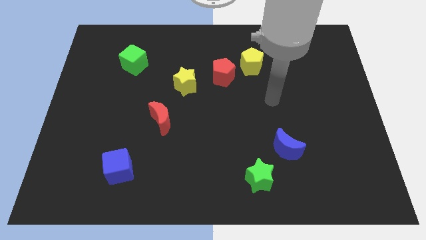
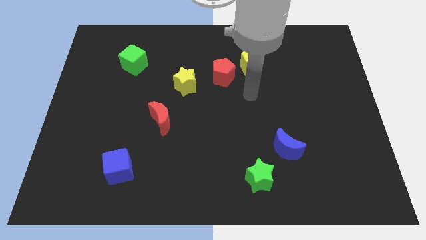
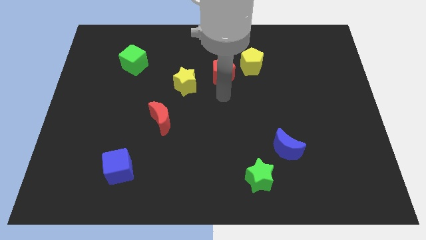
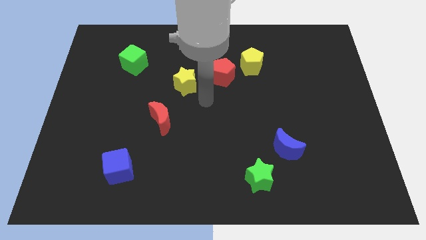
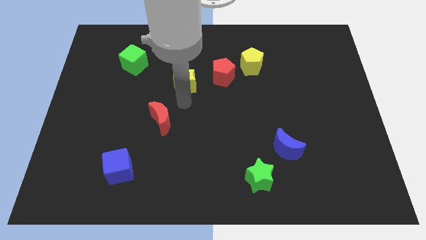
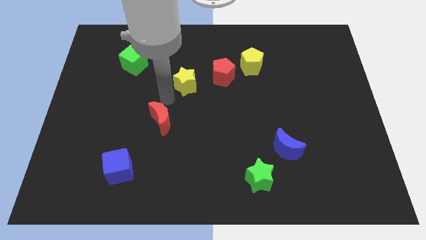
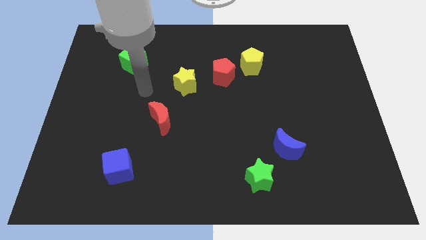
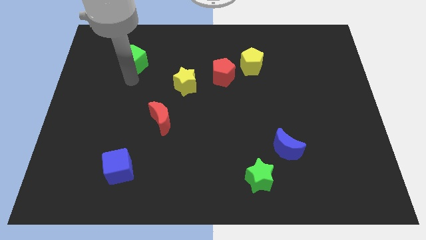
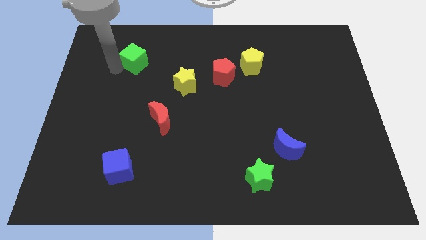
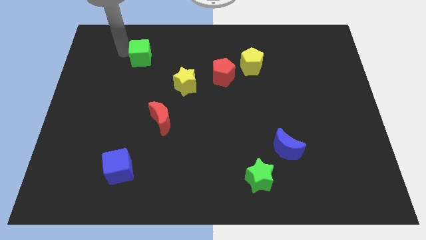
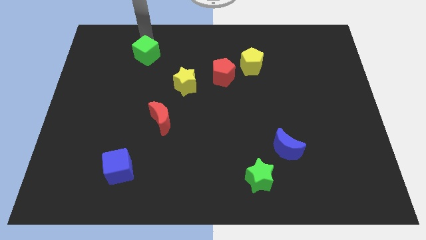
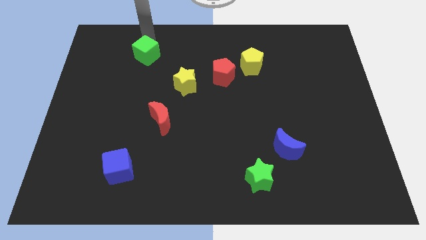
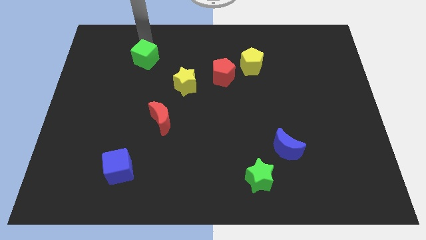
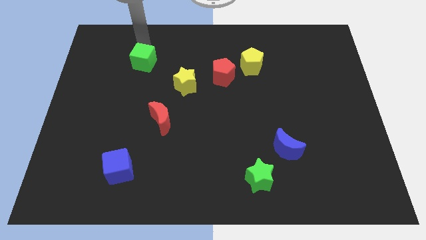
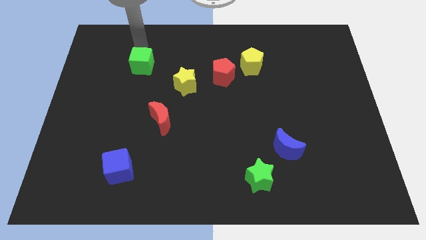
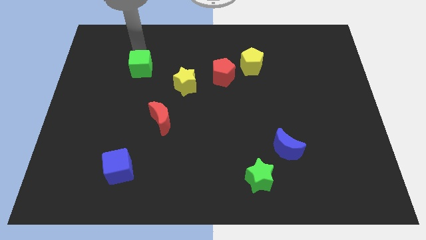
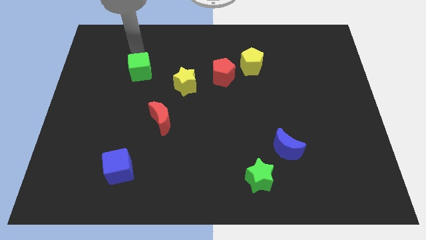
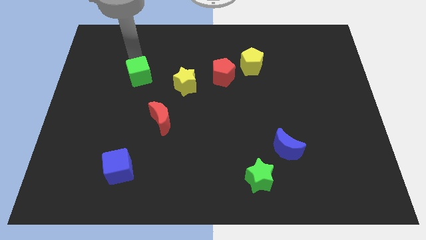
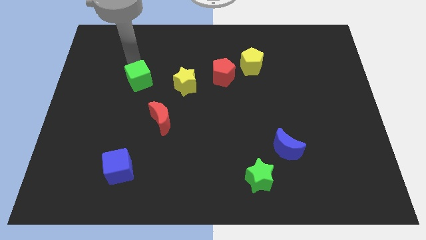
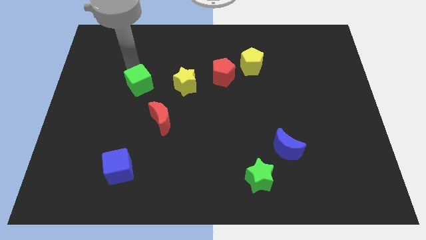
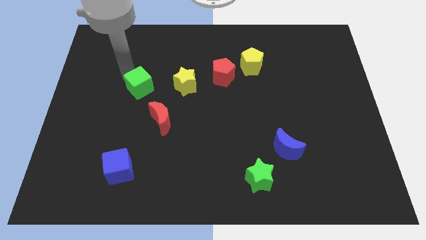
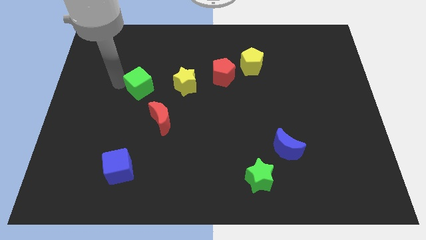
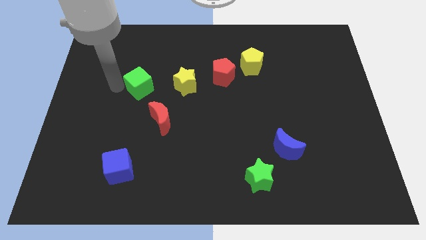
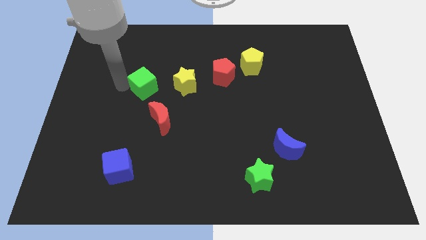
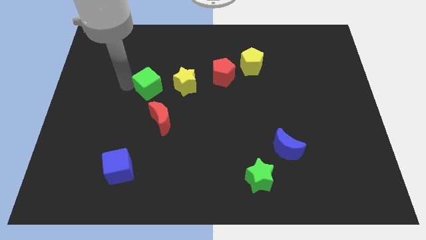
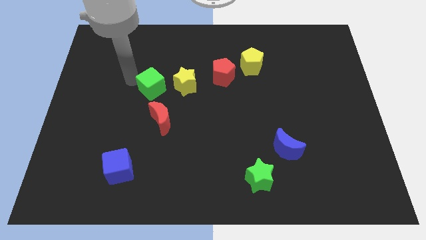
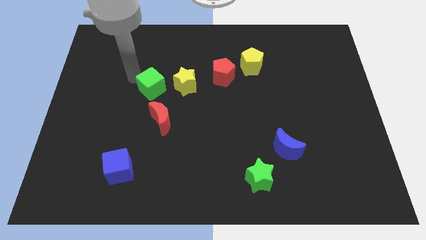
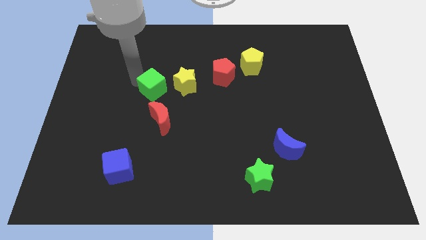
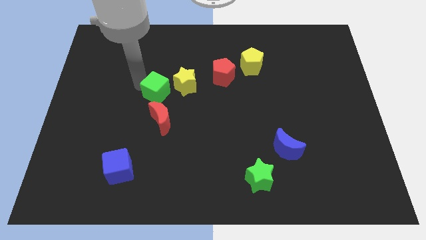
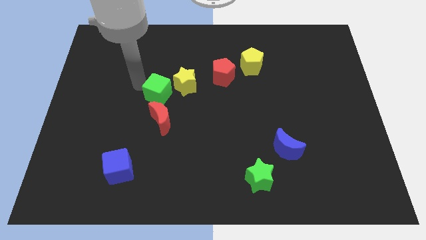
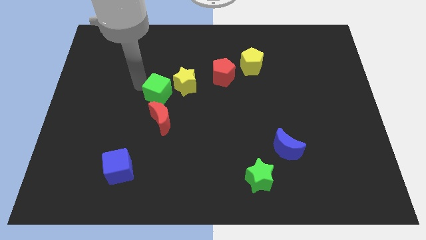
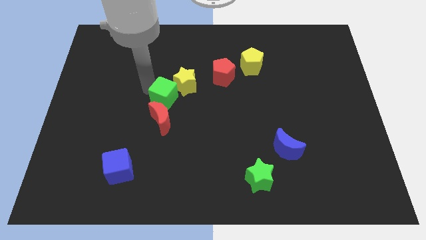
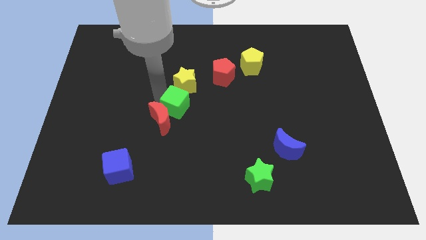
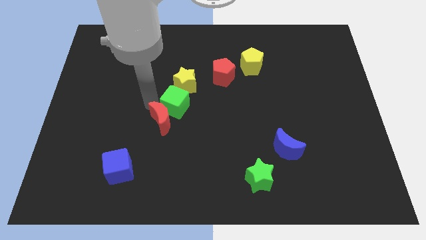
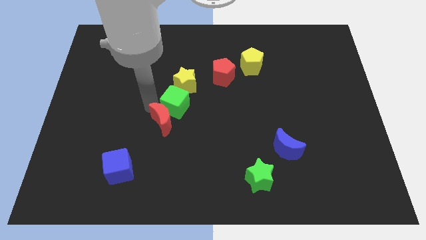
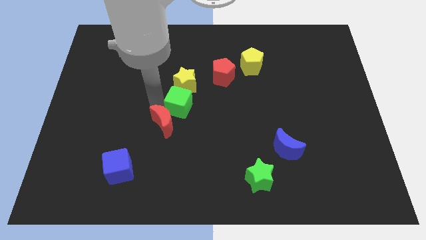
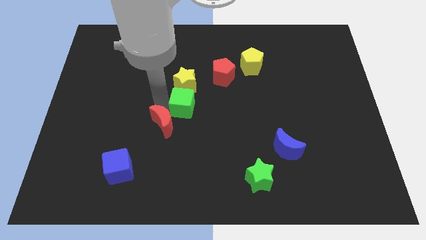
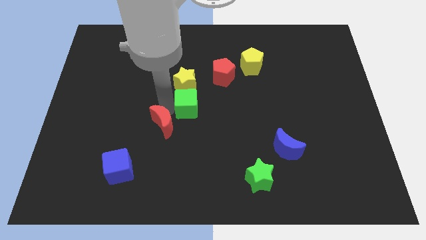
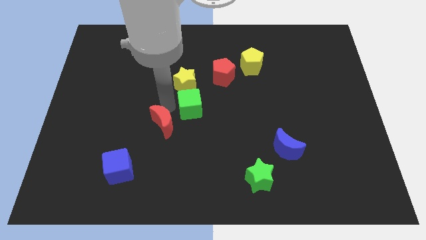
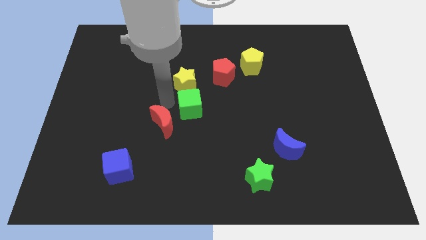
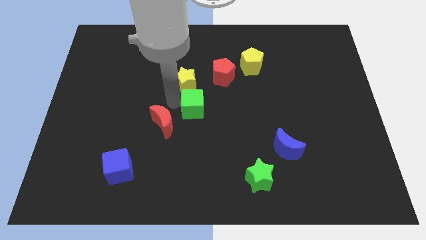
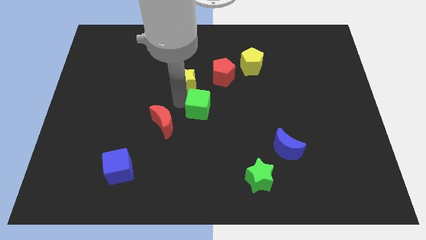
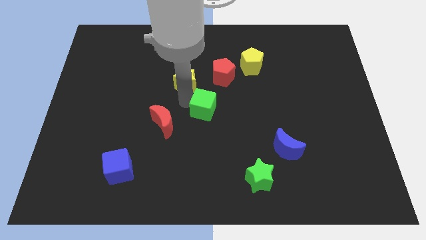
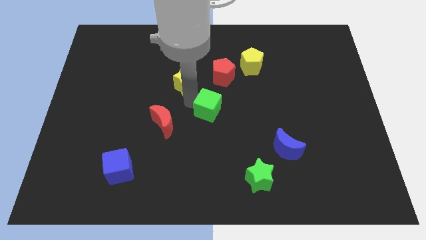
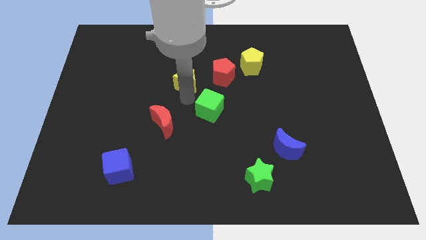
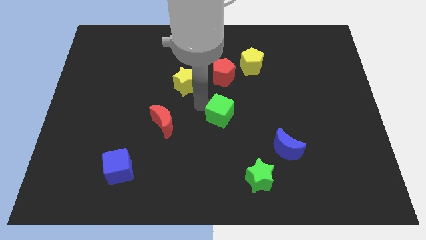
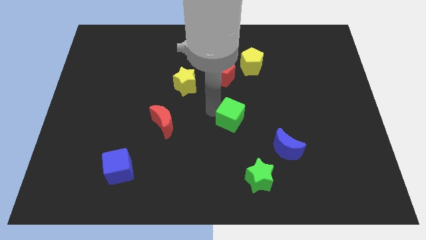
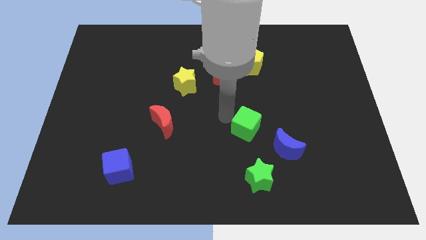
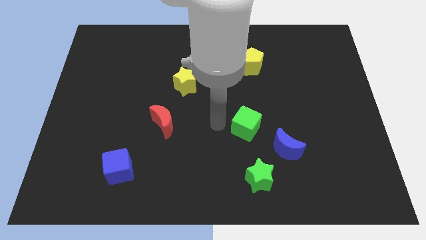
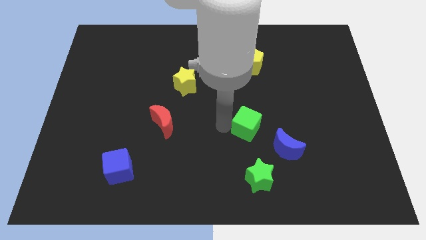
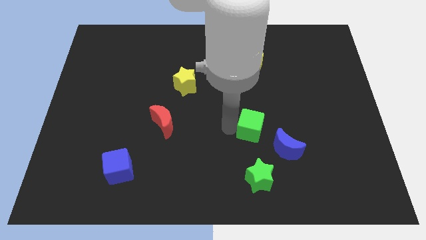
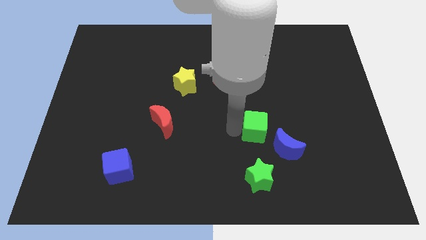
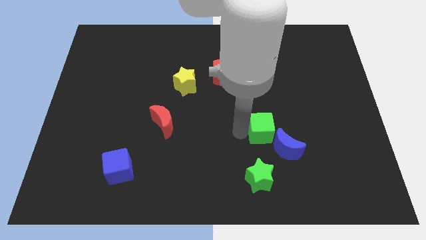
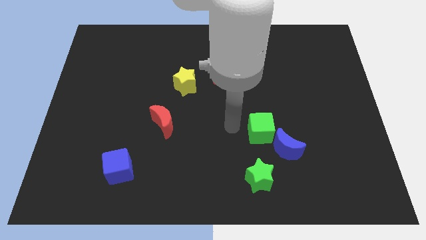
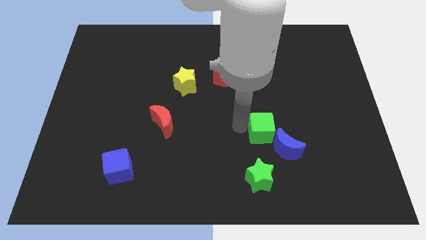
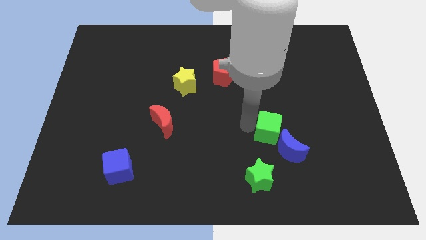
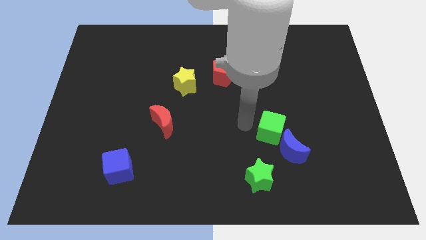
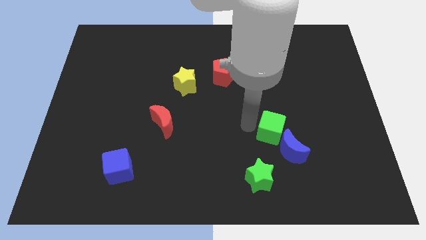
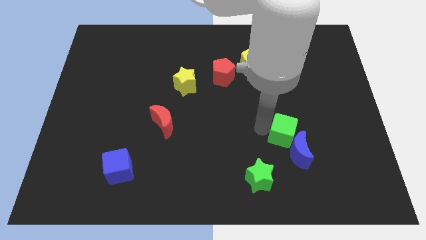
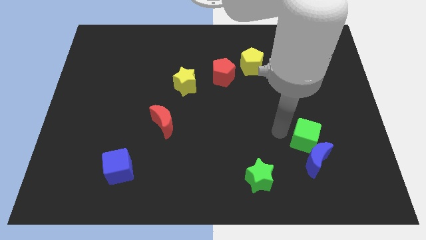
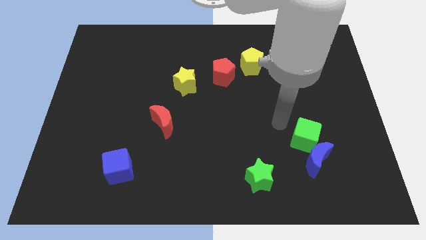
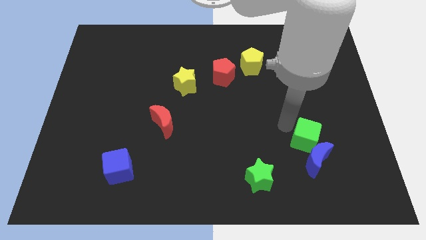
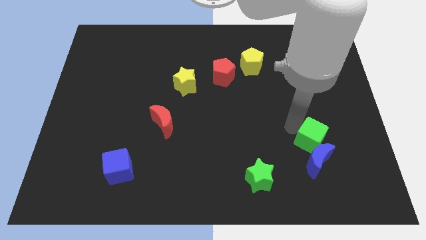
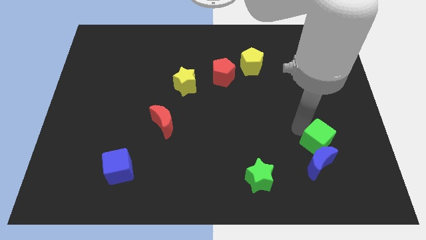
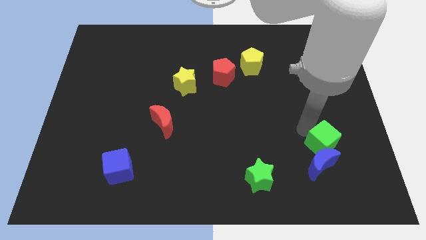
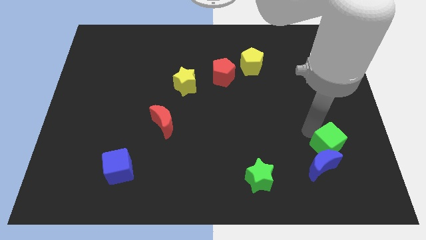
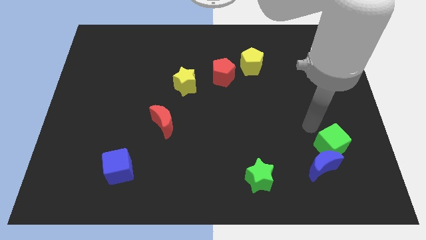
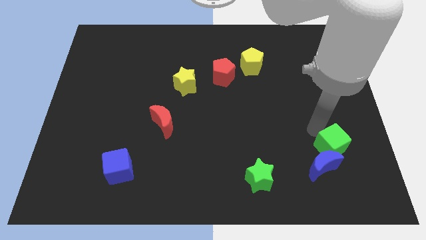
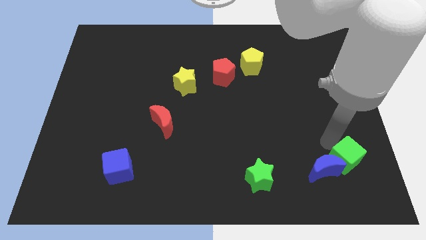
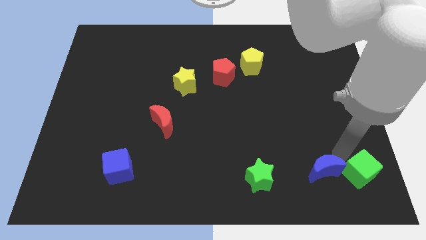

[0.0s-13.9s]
move the green cube to the bottom right of the board
